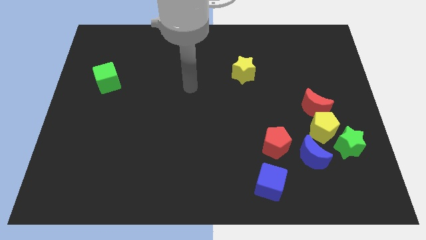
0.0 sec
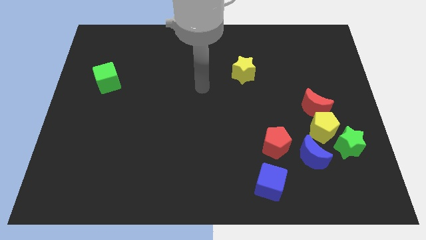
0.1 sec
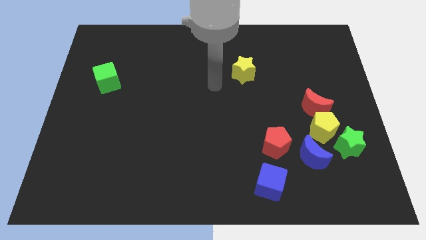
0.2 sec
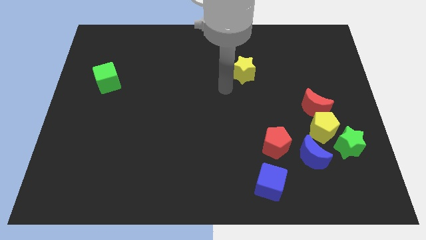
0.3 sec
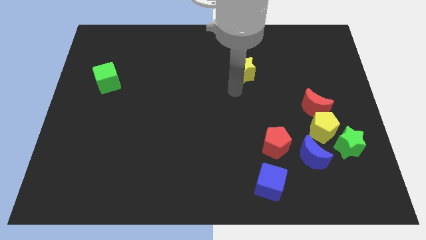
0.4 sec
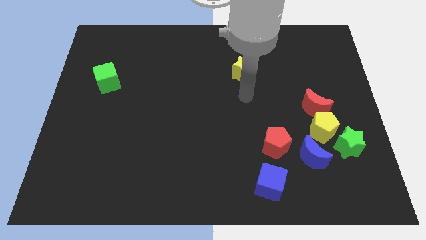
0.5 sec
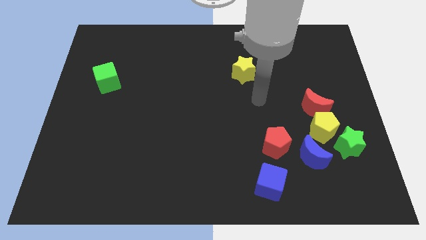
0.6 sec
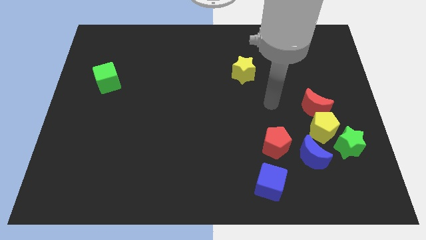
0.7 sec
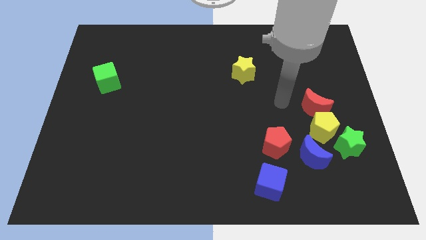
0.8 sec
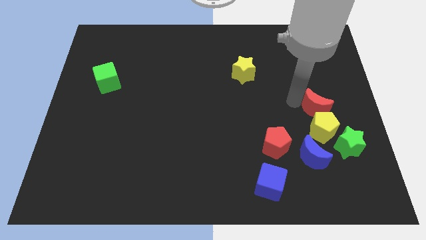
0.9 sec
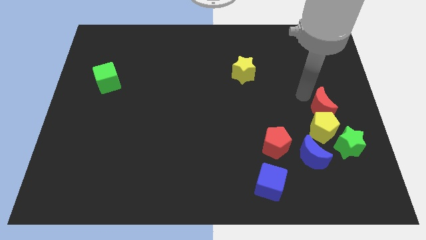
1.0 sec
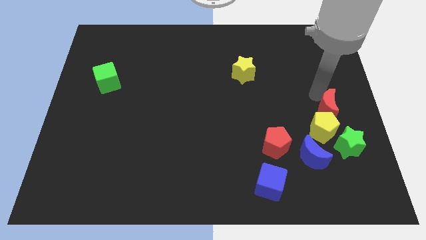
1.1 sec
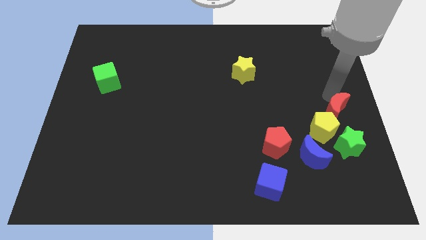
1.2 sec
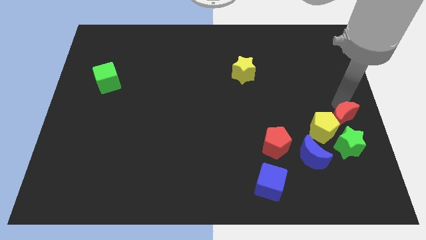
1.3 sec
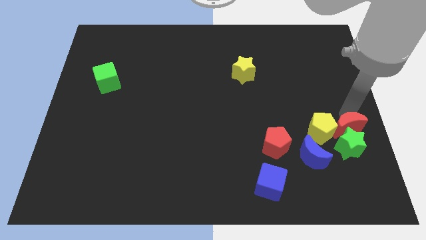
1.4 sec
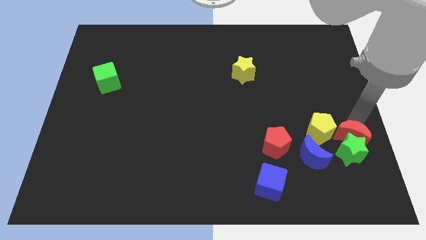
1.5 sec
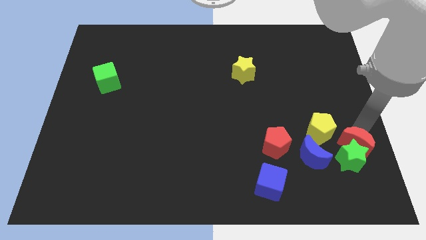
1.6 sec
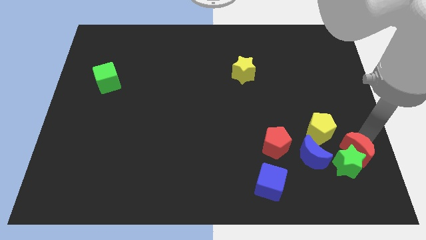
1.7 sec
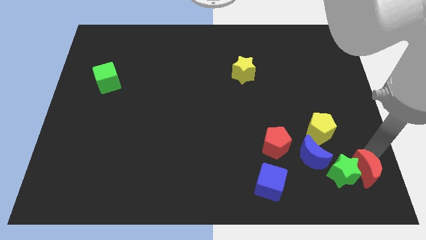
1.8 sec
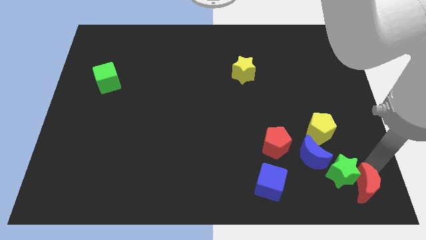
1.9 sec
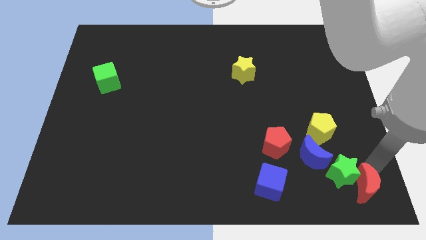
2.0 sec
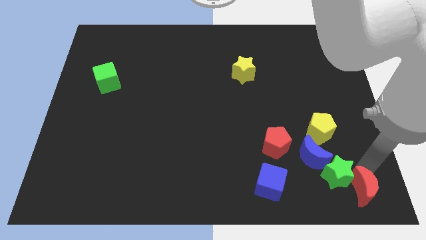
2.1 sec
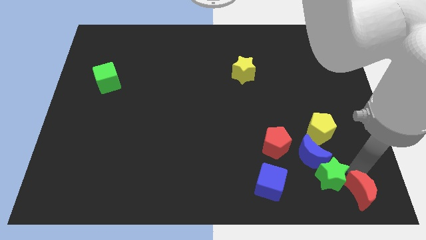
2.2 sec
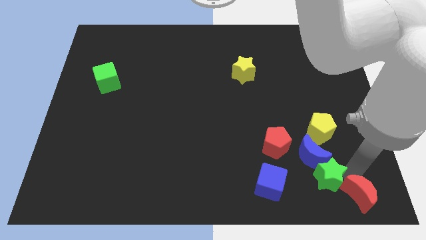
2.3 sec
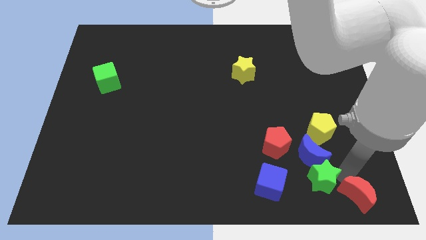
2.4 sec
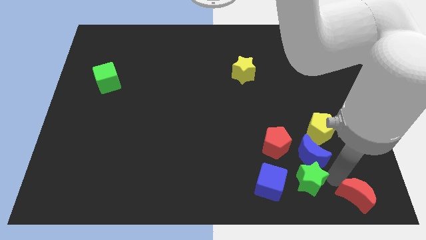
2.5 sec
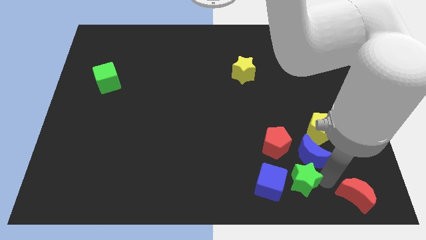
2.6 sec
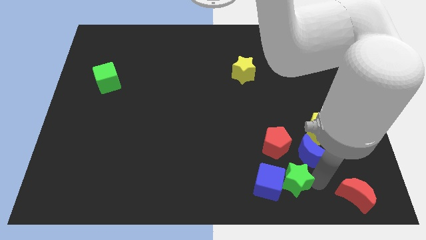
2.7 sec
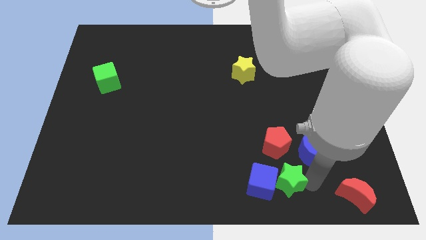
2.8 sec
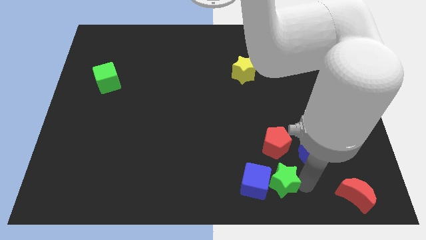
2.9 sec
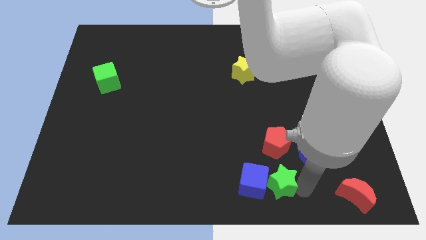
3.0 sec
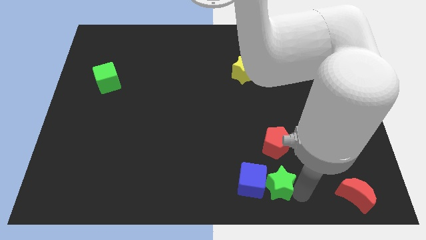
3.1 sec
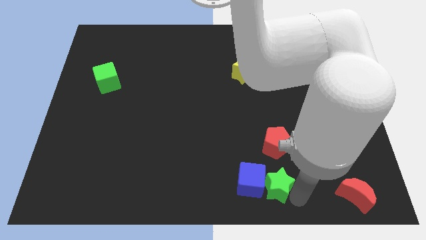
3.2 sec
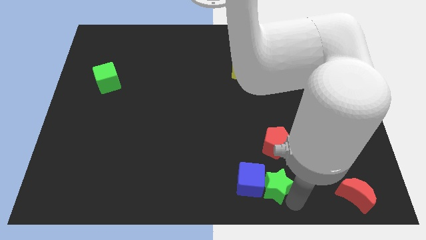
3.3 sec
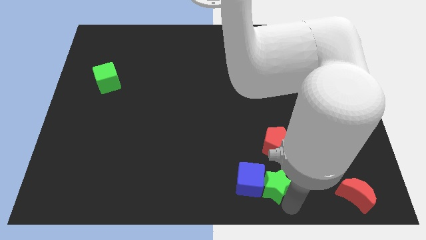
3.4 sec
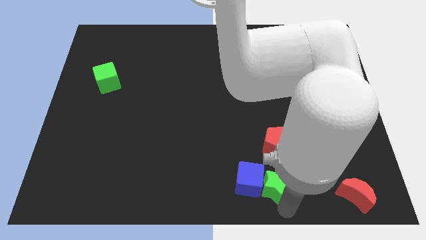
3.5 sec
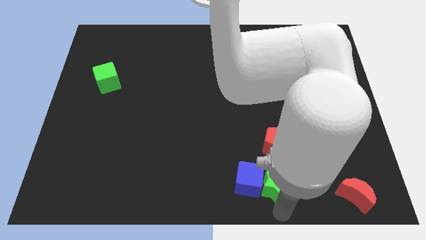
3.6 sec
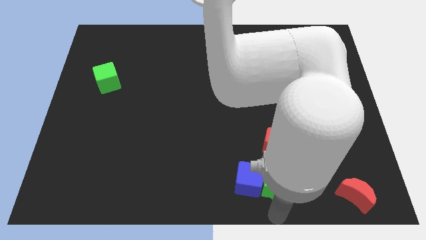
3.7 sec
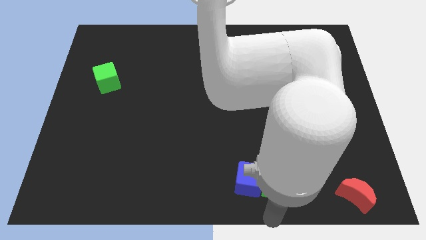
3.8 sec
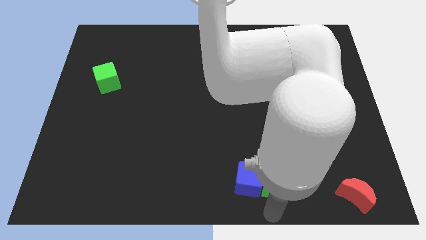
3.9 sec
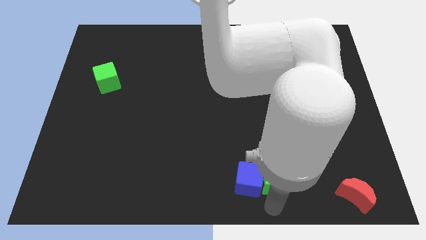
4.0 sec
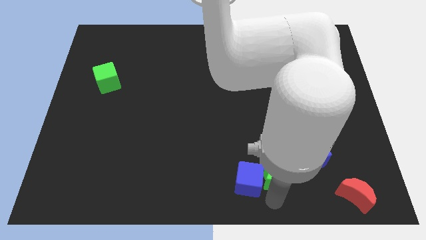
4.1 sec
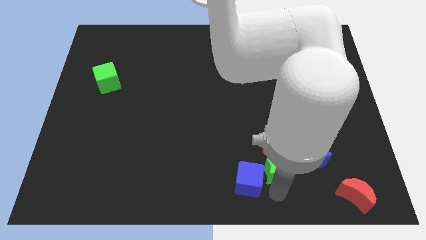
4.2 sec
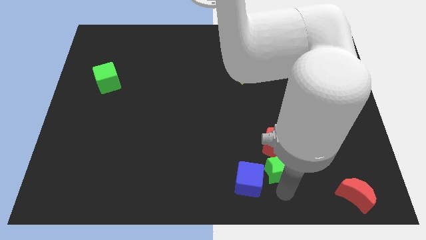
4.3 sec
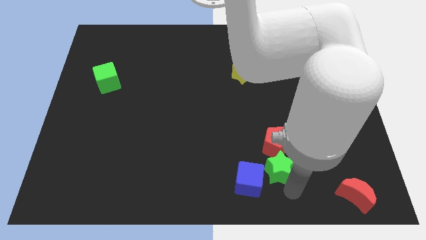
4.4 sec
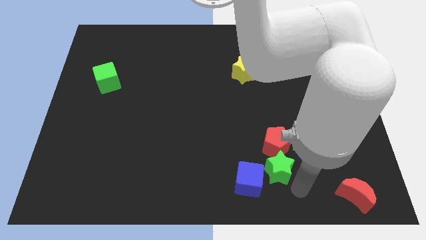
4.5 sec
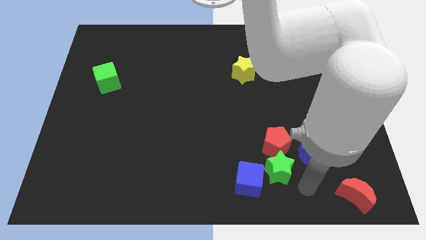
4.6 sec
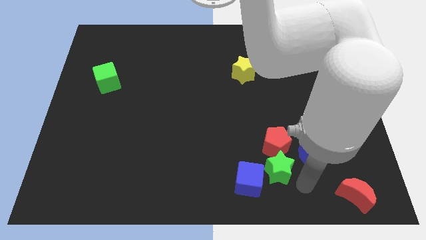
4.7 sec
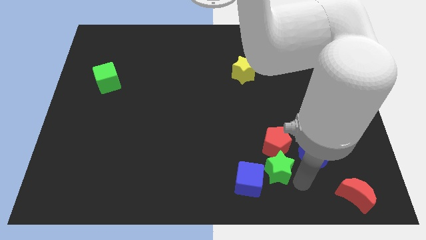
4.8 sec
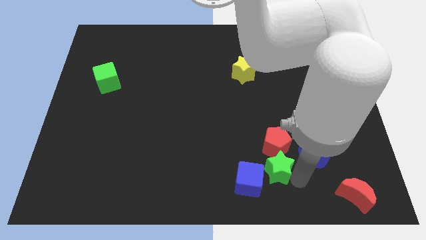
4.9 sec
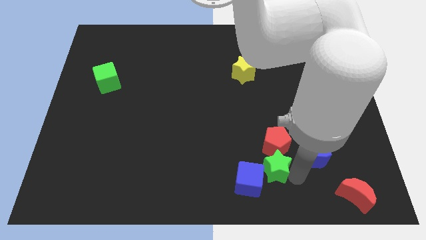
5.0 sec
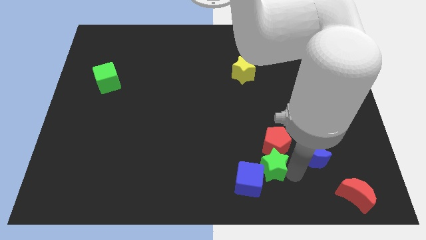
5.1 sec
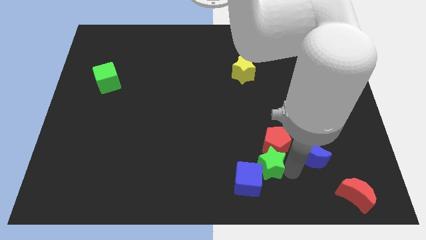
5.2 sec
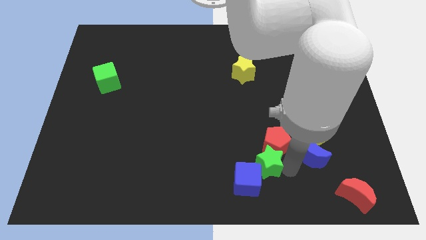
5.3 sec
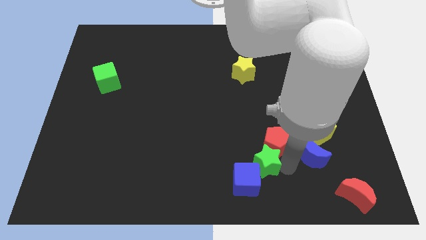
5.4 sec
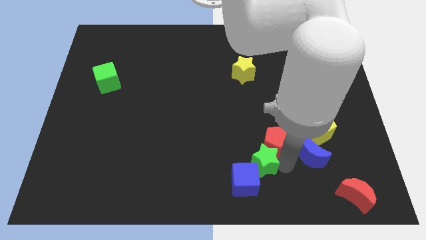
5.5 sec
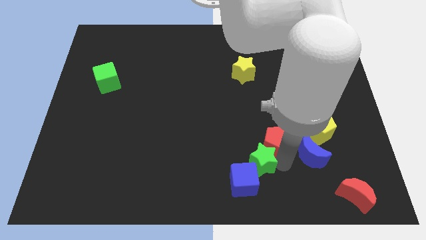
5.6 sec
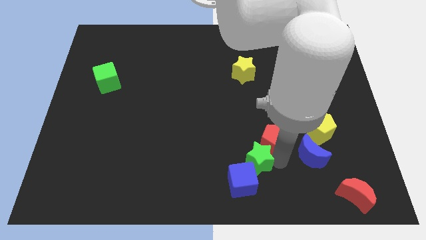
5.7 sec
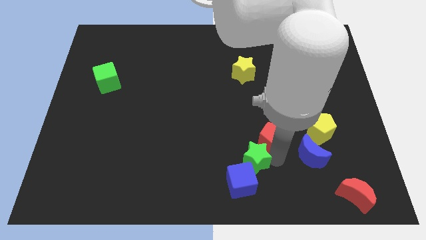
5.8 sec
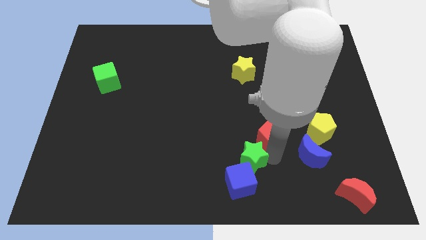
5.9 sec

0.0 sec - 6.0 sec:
push the green star left

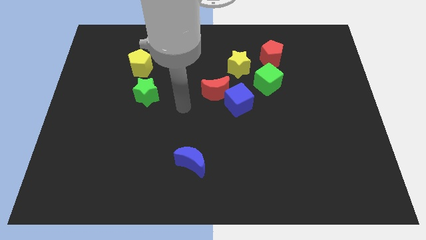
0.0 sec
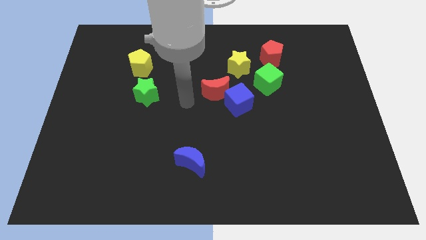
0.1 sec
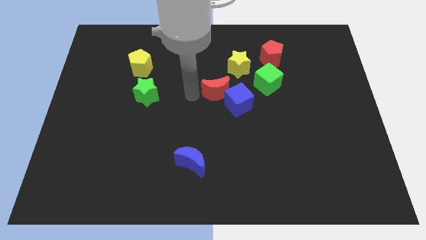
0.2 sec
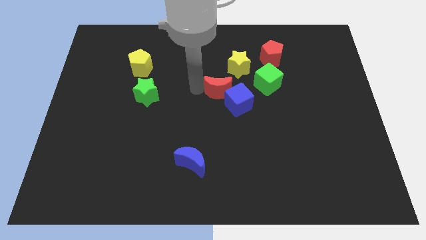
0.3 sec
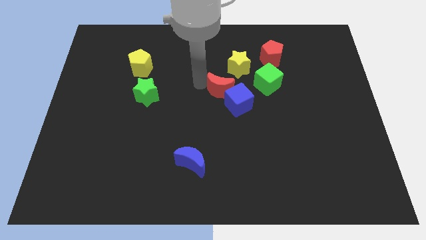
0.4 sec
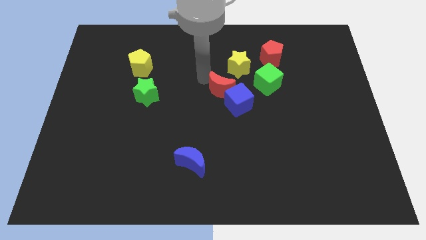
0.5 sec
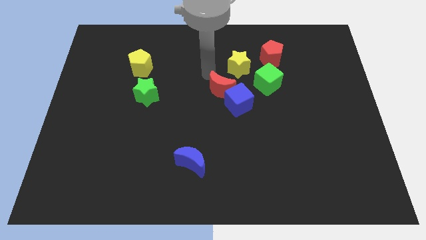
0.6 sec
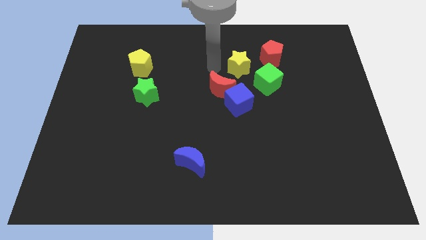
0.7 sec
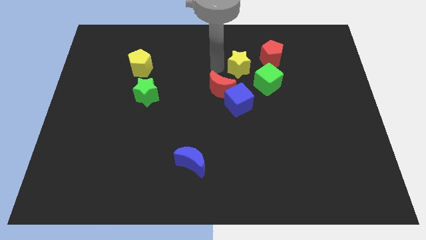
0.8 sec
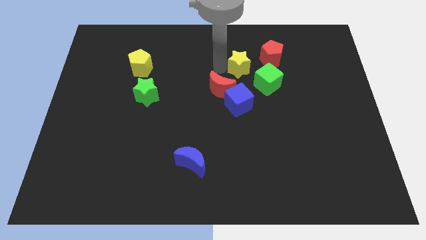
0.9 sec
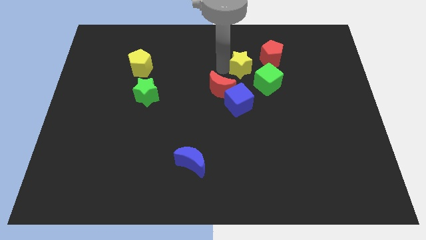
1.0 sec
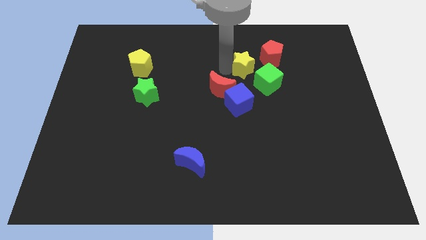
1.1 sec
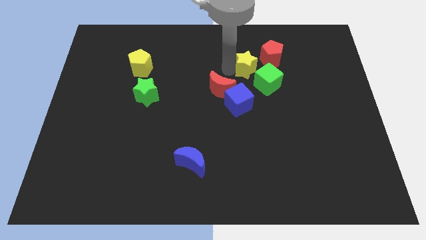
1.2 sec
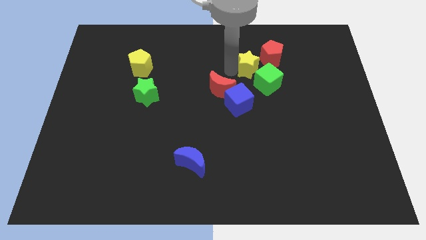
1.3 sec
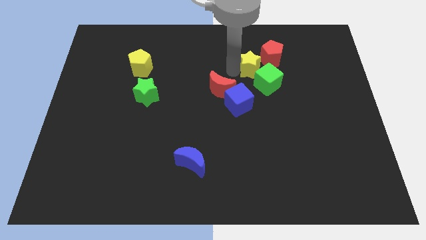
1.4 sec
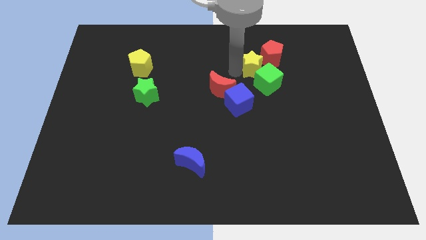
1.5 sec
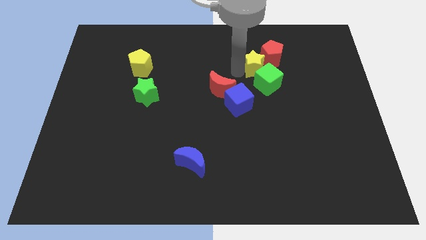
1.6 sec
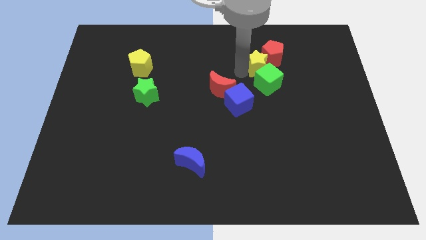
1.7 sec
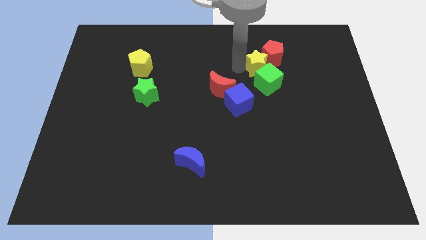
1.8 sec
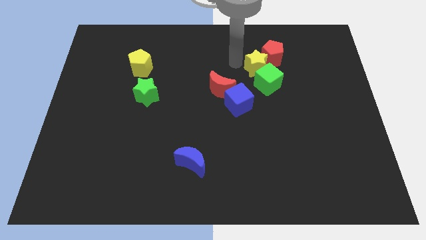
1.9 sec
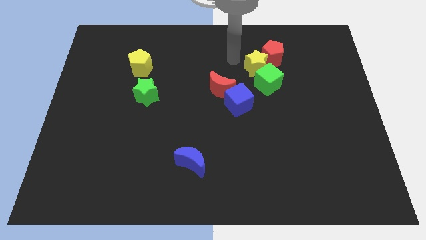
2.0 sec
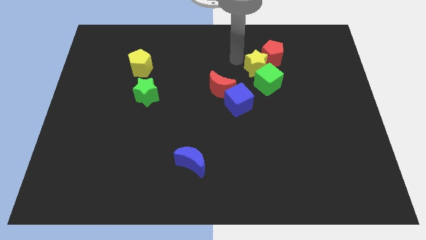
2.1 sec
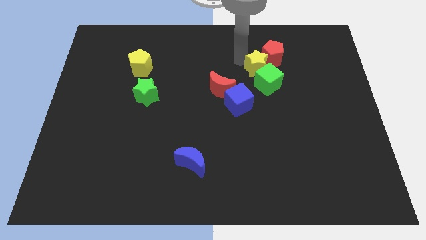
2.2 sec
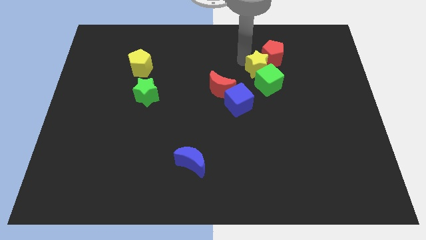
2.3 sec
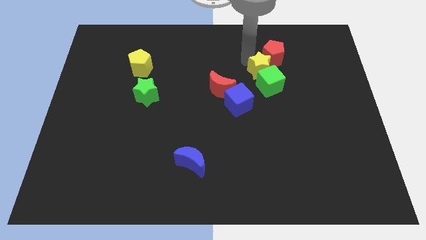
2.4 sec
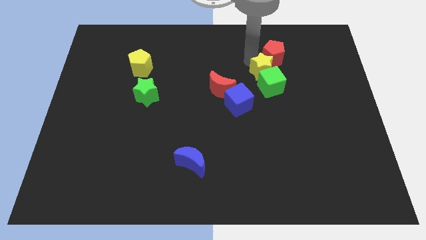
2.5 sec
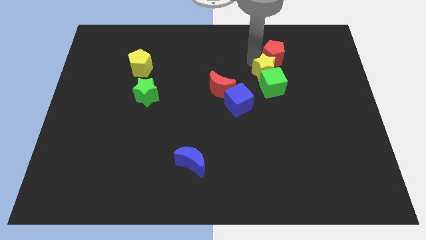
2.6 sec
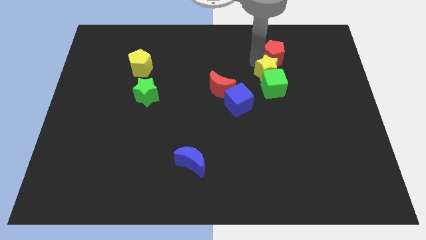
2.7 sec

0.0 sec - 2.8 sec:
push the yellow star somewhat right
